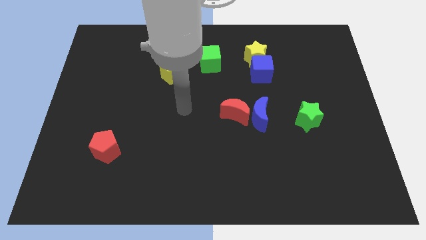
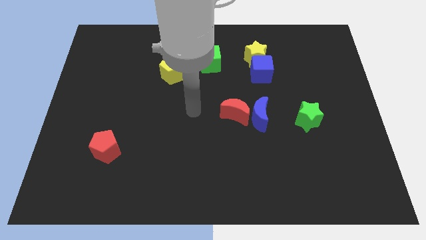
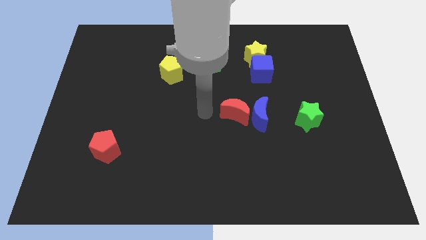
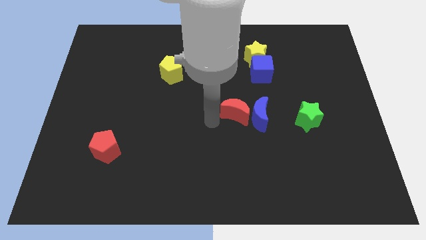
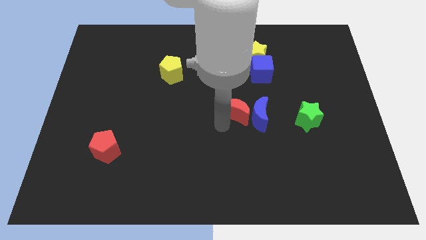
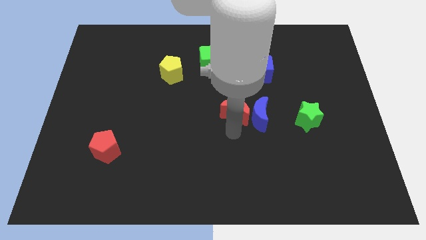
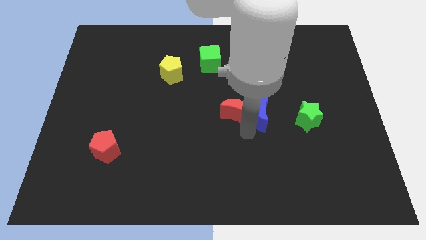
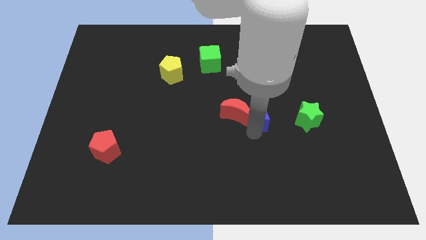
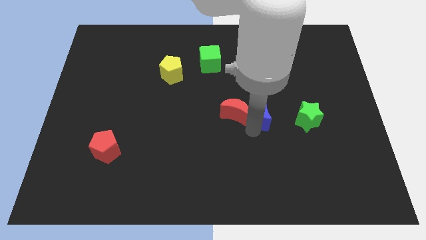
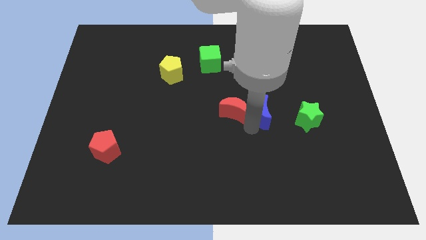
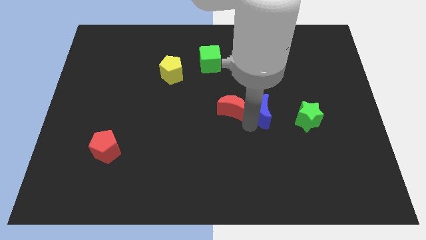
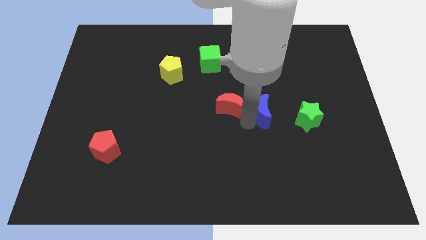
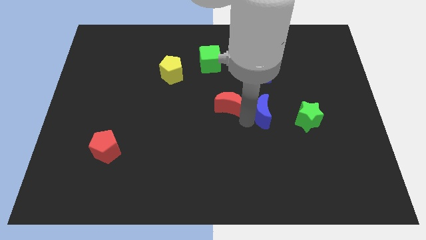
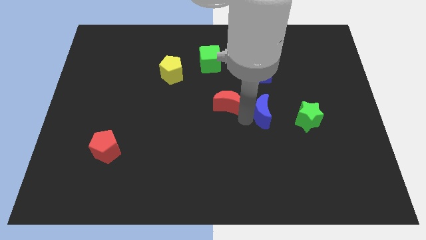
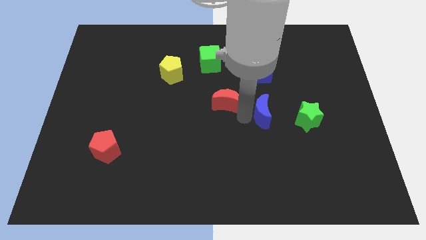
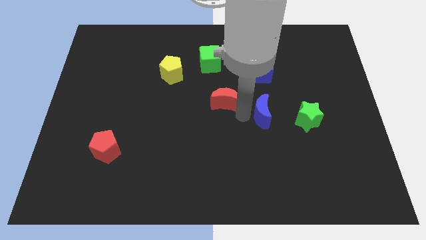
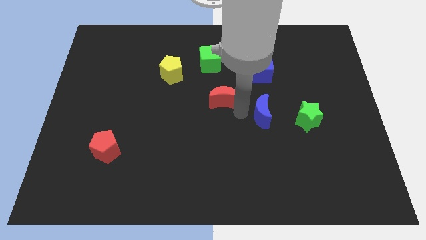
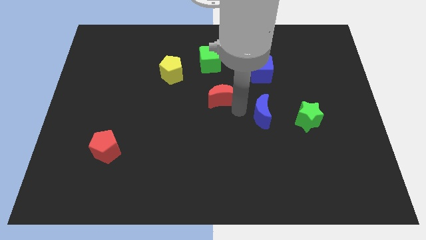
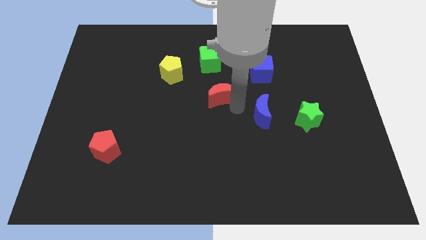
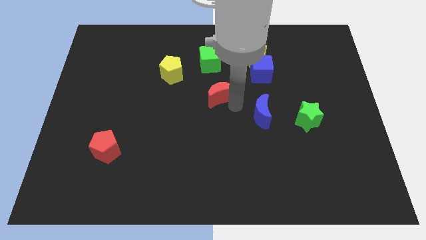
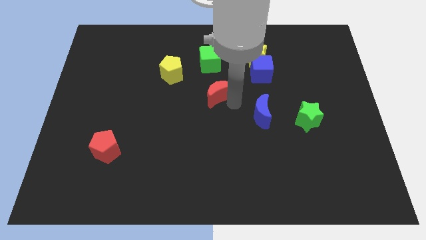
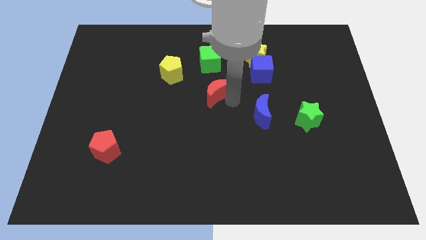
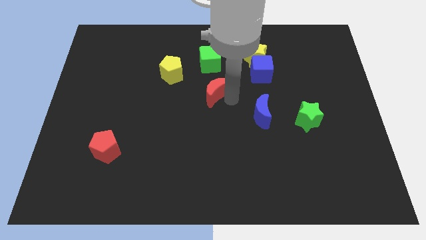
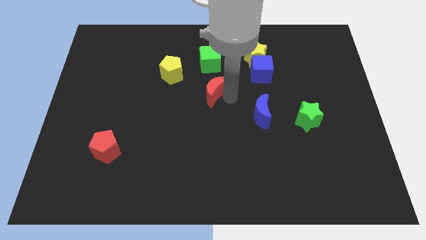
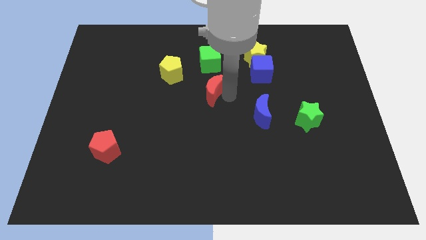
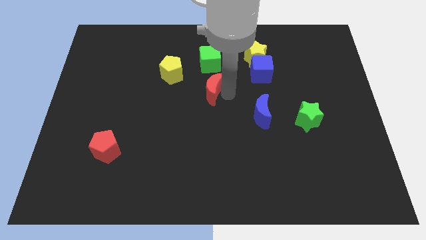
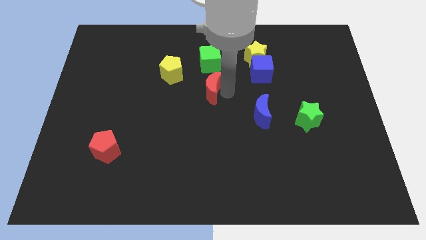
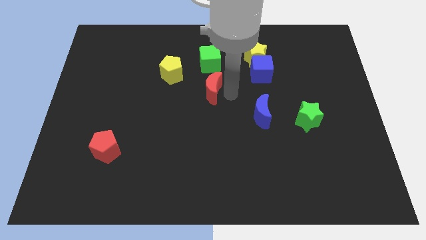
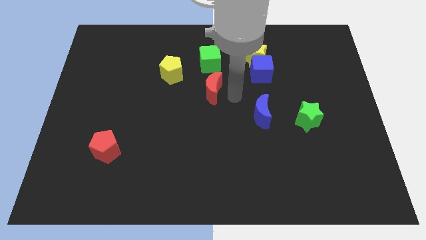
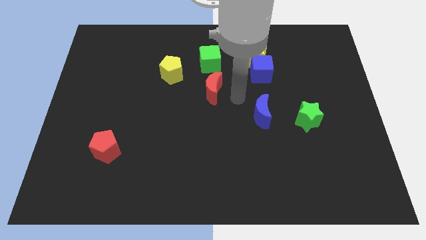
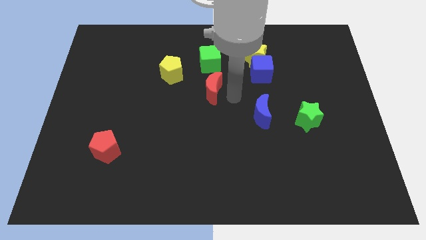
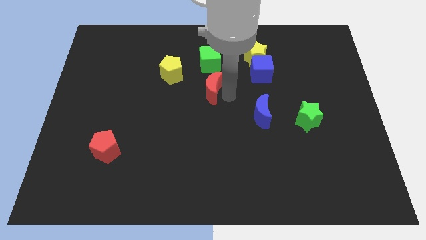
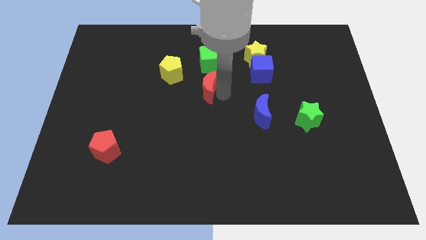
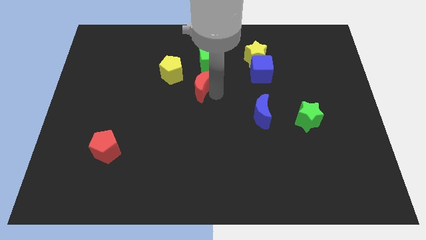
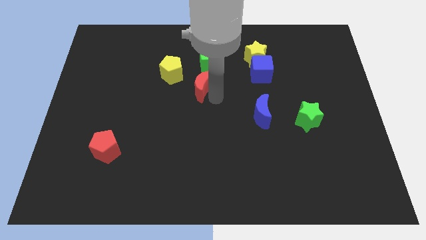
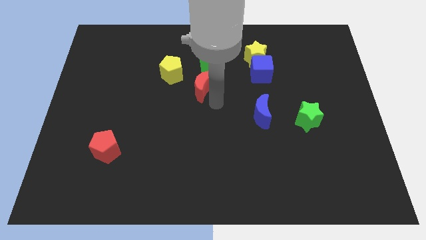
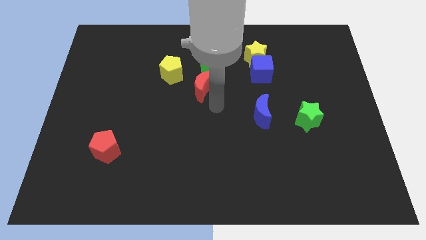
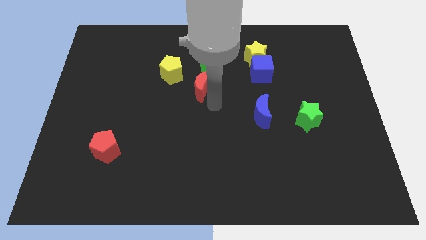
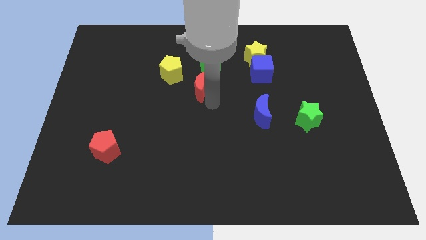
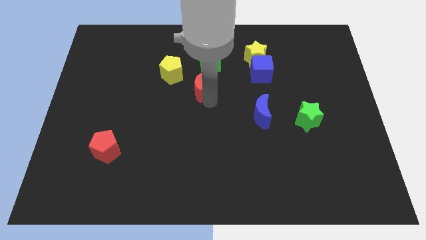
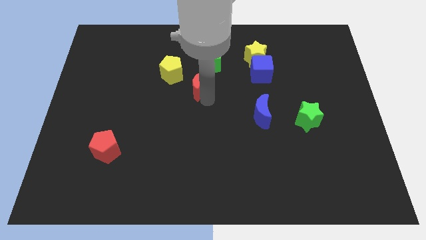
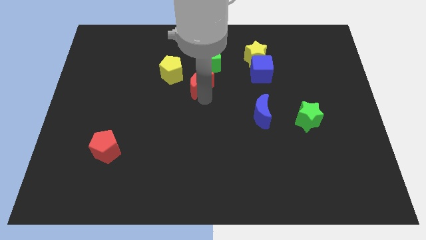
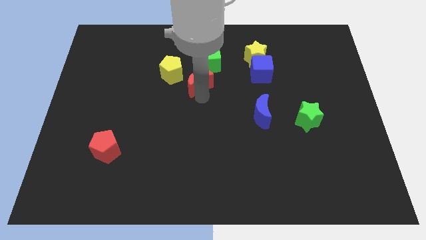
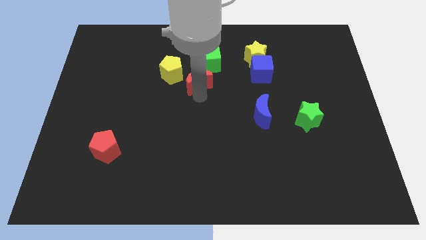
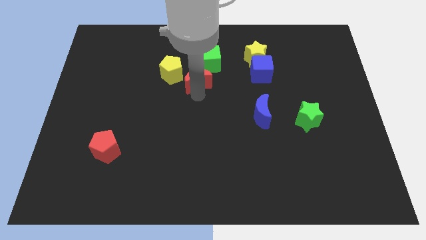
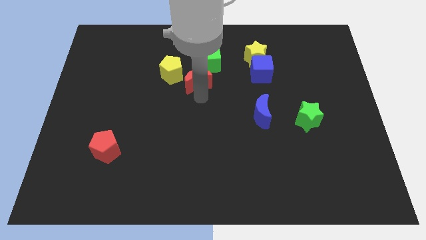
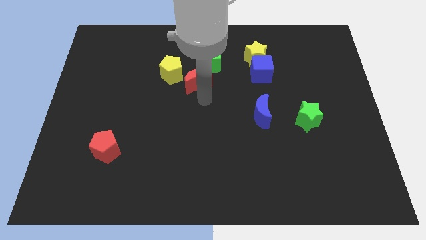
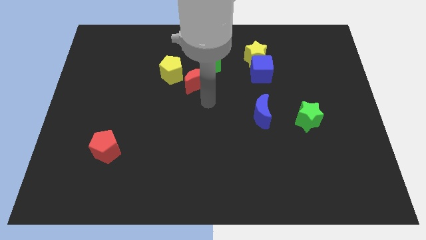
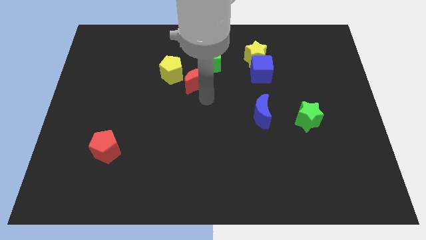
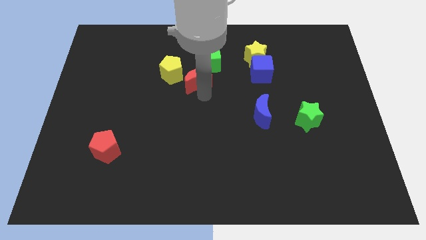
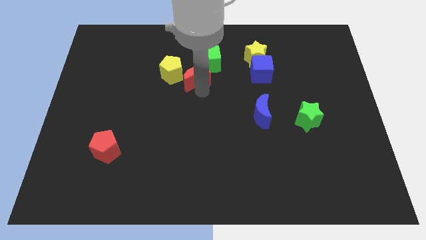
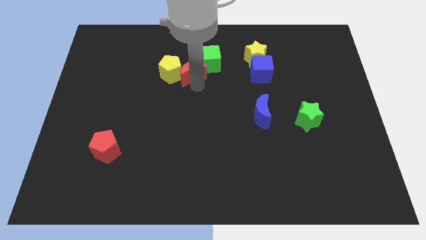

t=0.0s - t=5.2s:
move the red moon to the top right side of the yellow pentagon

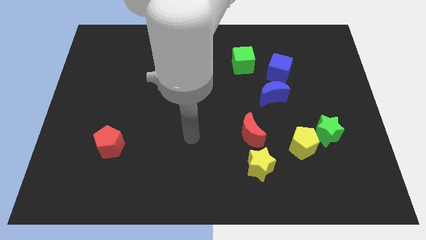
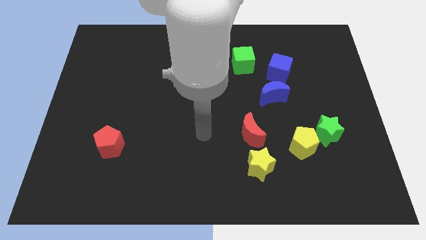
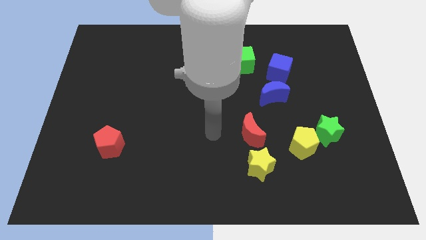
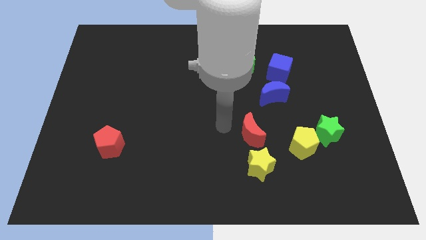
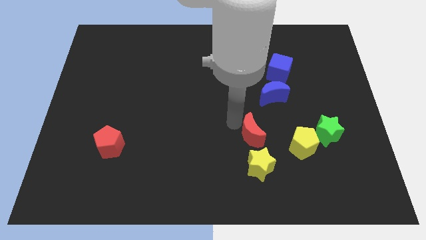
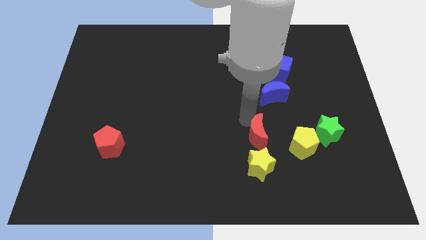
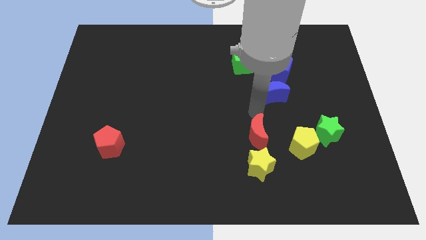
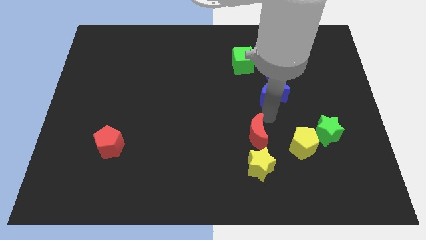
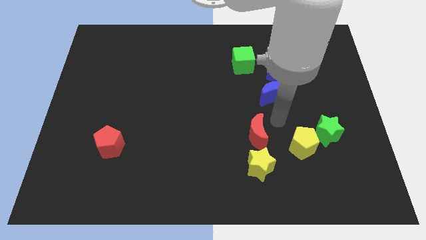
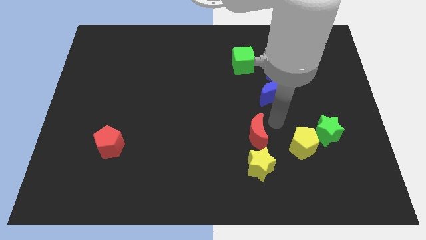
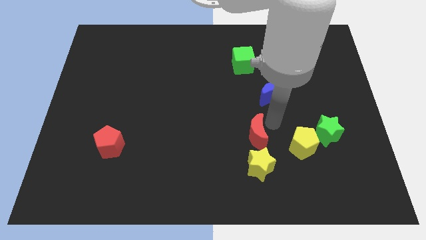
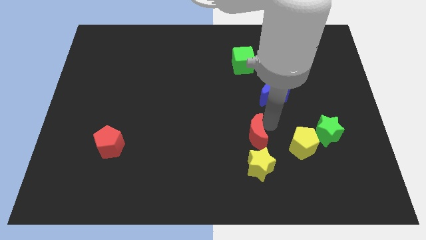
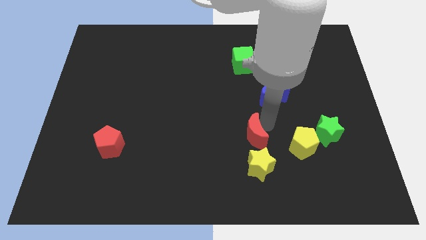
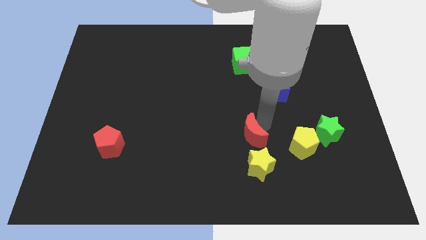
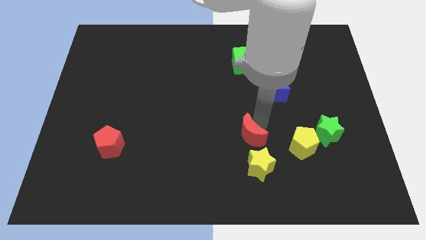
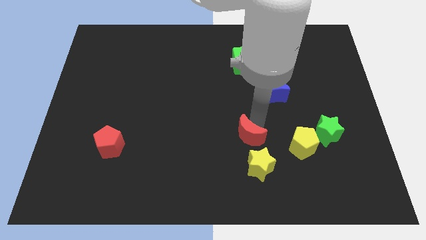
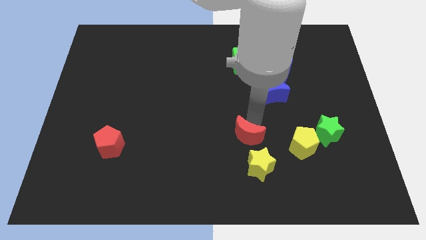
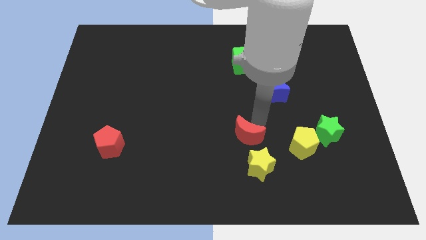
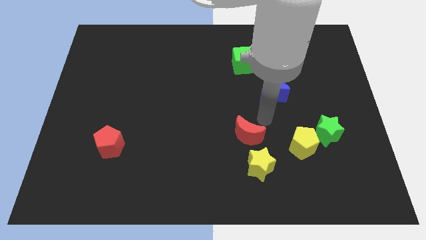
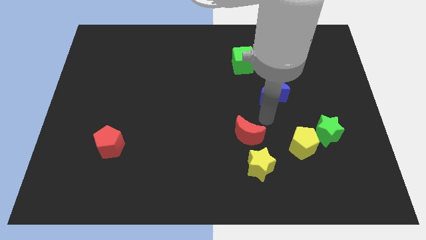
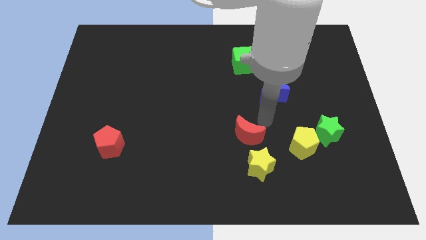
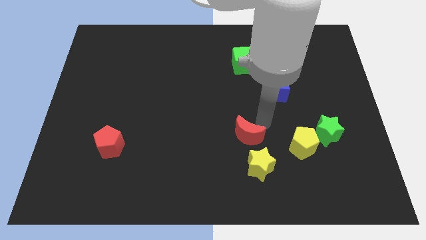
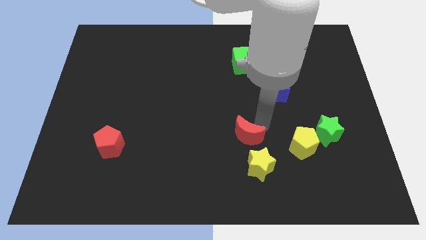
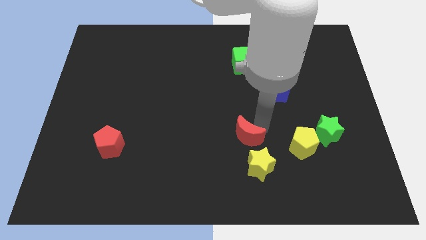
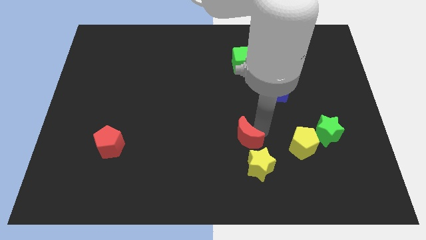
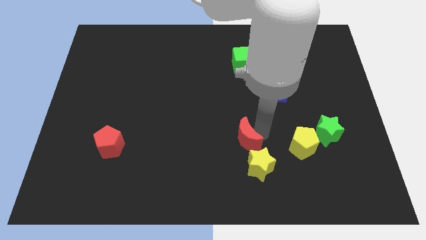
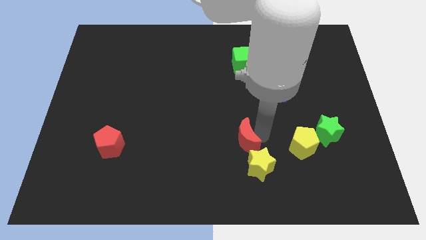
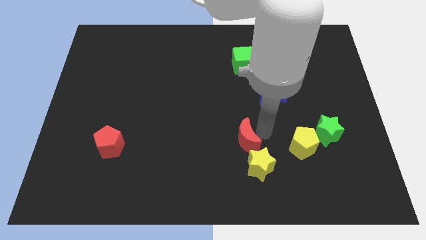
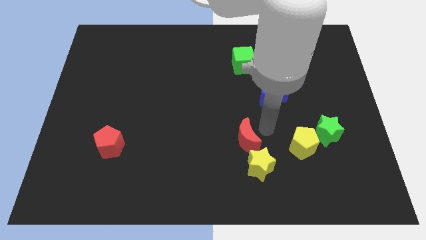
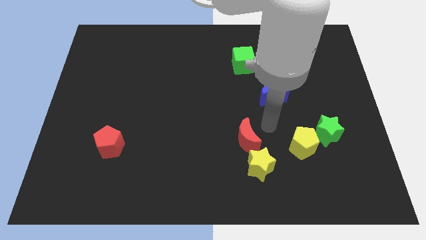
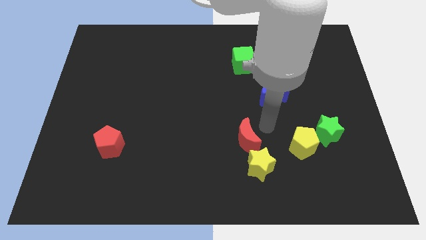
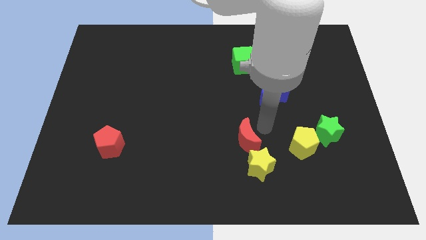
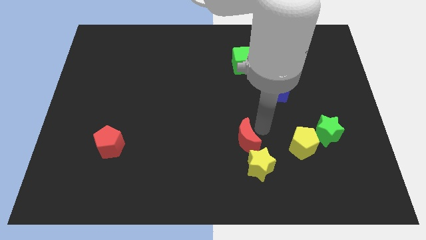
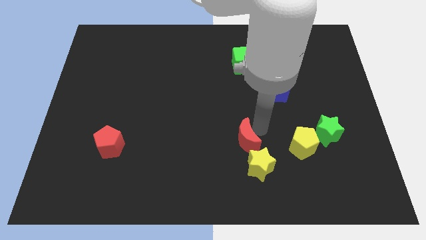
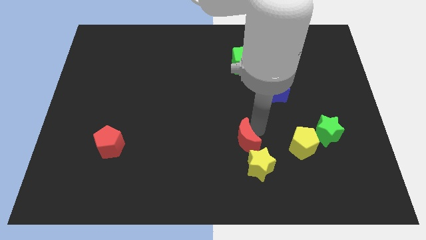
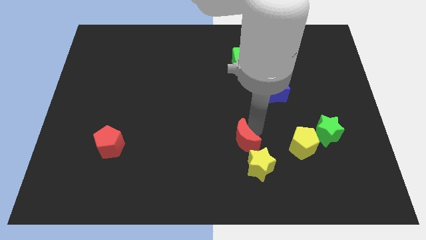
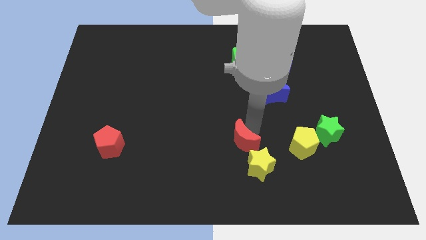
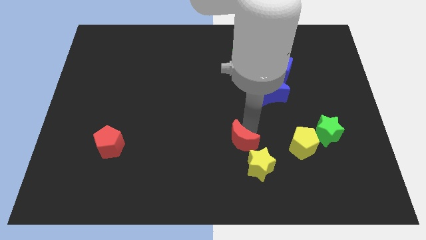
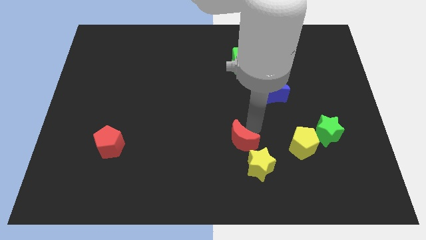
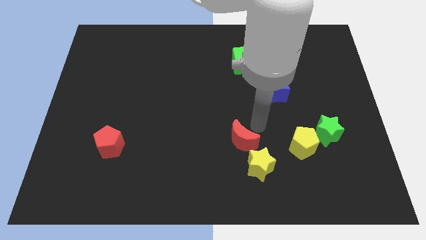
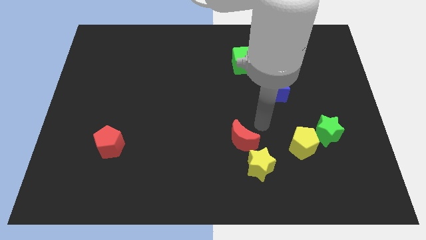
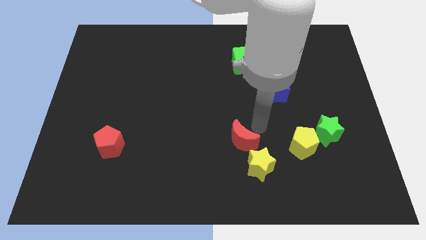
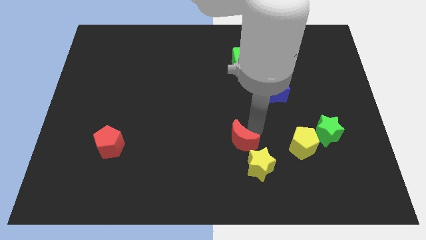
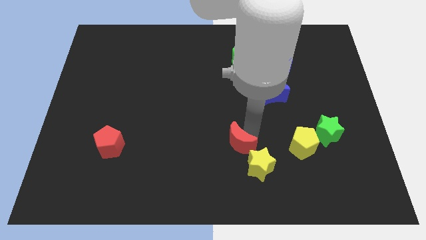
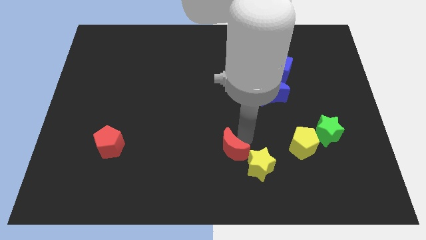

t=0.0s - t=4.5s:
push the red moon left of the yellow star
